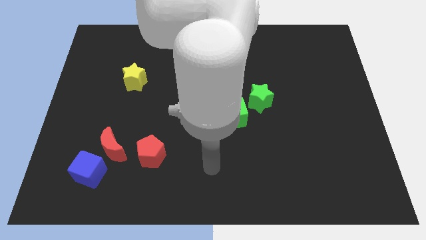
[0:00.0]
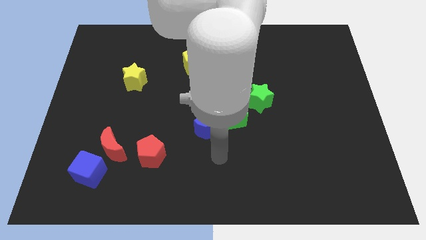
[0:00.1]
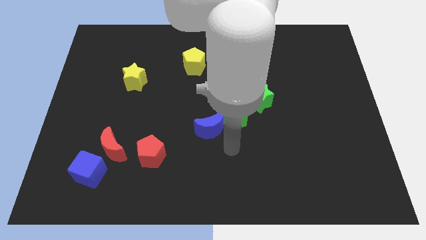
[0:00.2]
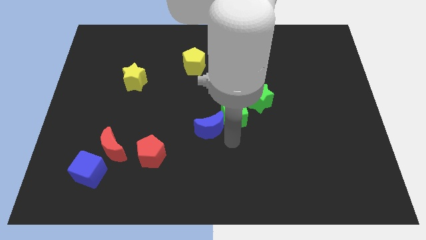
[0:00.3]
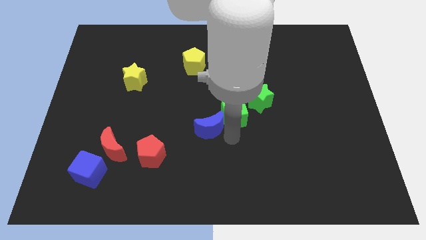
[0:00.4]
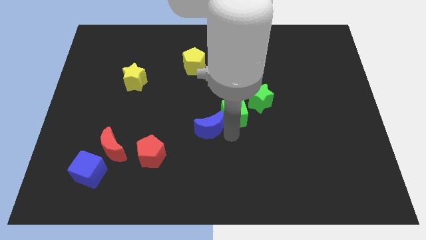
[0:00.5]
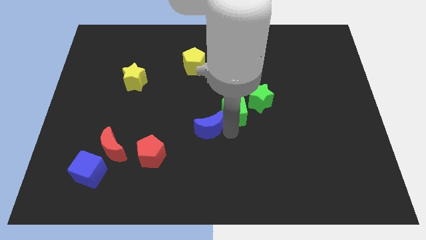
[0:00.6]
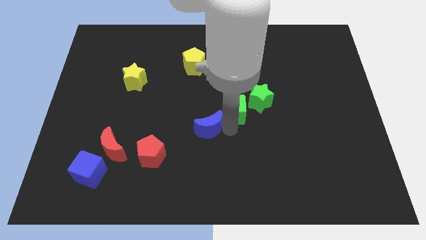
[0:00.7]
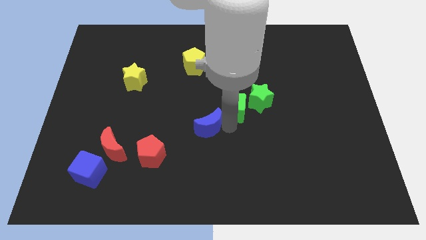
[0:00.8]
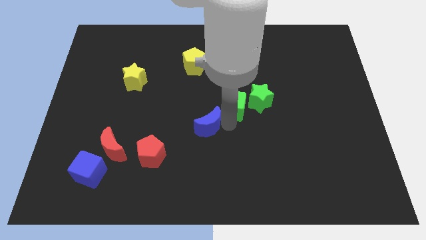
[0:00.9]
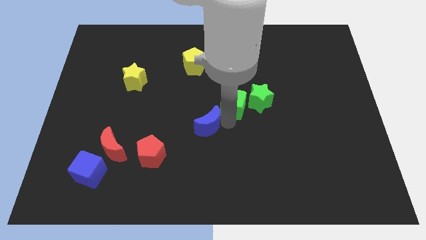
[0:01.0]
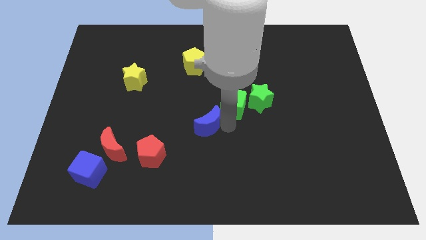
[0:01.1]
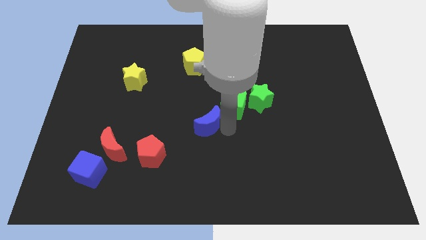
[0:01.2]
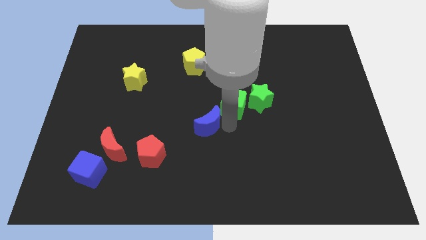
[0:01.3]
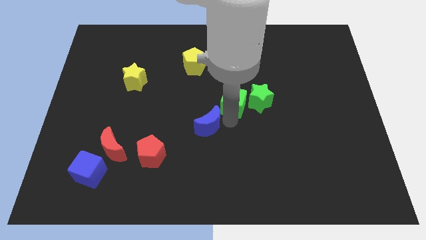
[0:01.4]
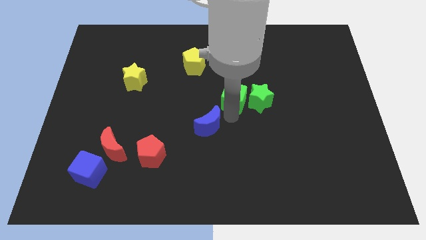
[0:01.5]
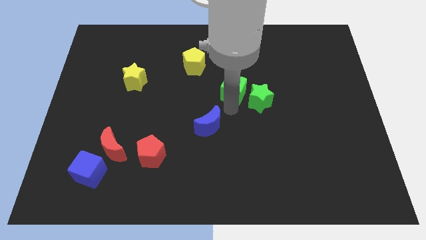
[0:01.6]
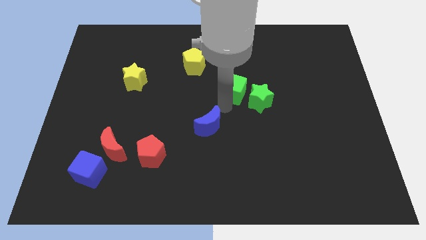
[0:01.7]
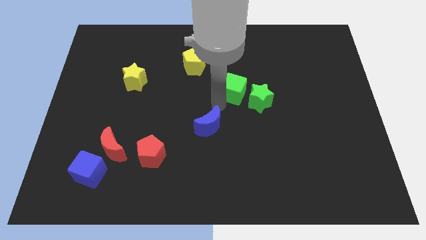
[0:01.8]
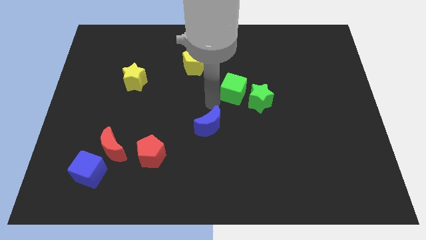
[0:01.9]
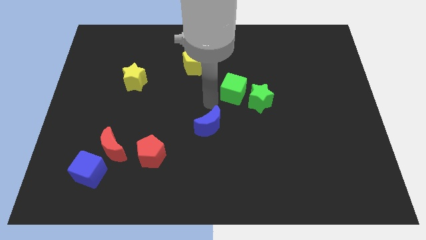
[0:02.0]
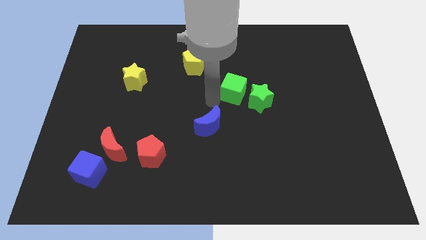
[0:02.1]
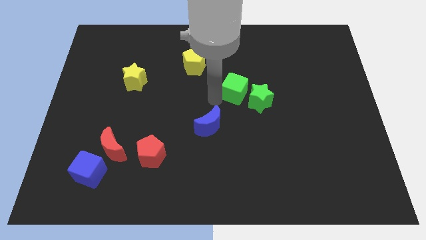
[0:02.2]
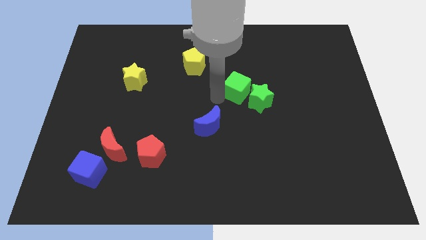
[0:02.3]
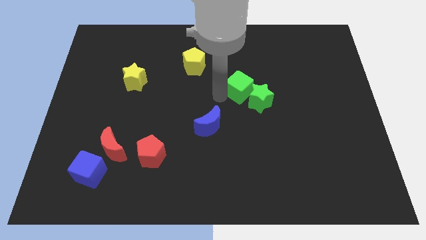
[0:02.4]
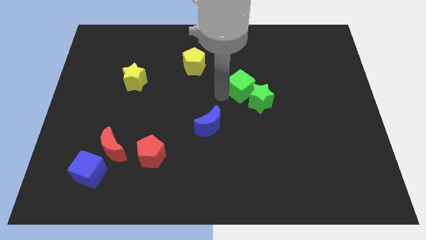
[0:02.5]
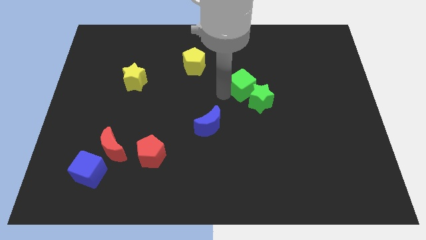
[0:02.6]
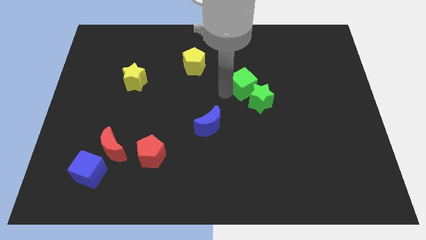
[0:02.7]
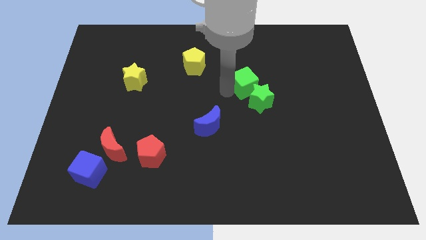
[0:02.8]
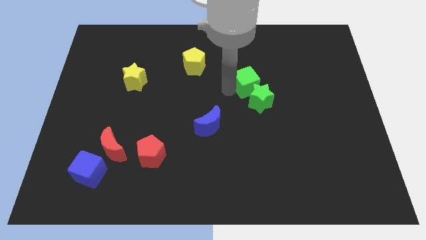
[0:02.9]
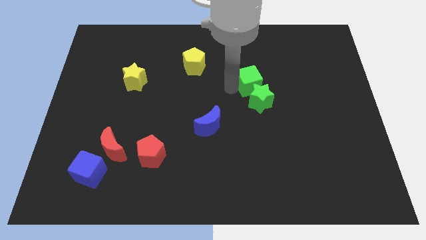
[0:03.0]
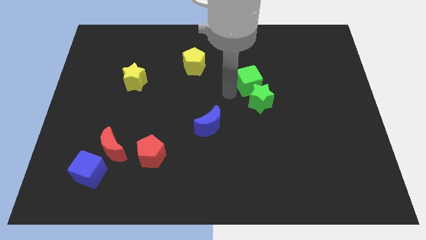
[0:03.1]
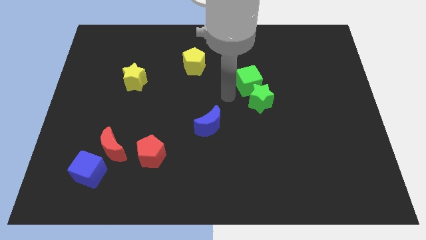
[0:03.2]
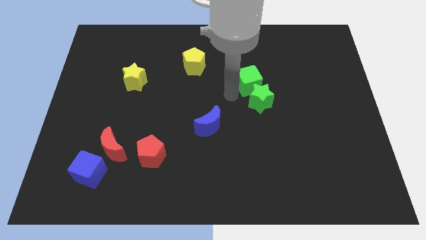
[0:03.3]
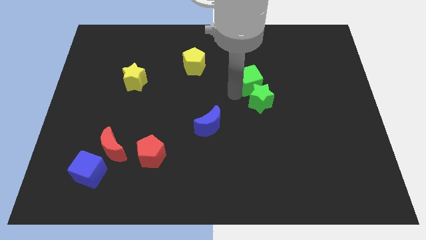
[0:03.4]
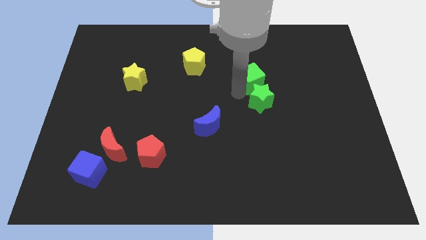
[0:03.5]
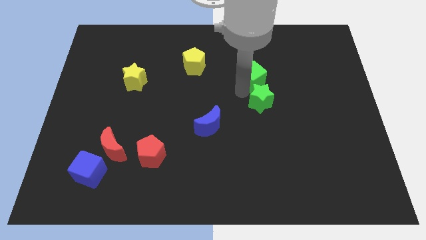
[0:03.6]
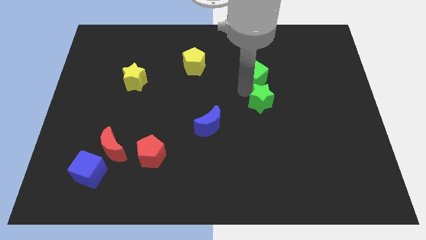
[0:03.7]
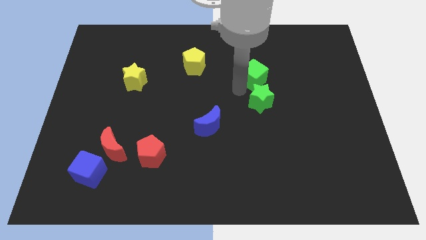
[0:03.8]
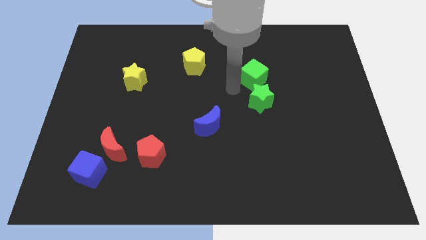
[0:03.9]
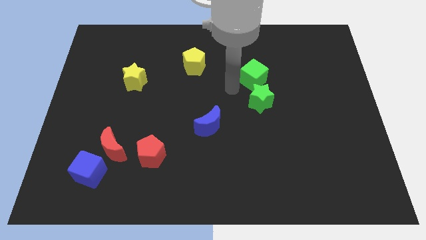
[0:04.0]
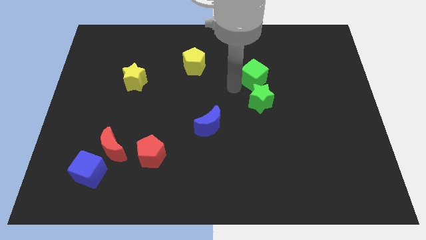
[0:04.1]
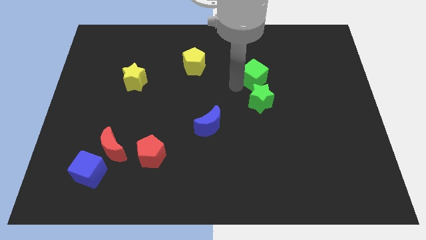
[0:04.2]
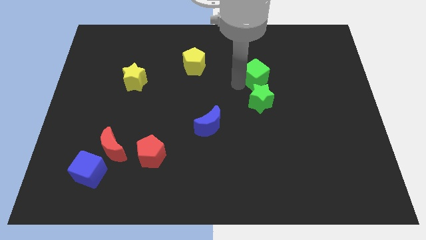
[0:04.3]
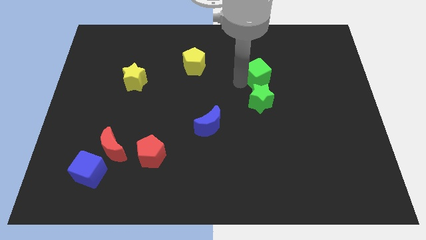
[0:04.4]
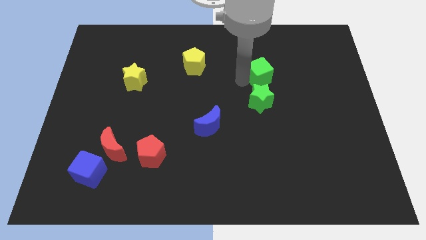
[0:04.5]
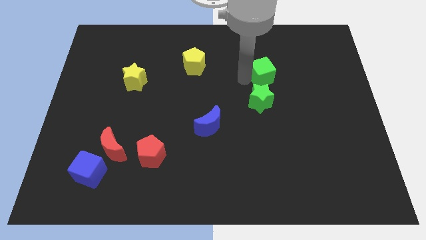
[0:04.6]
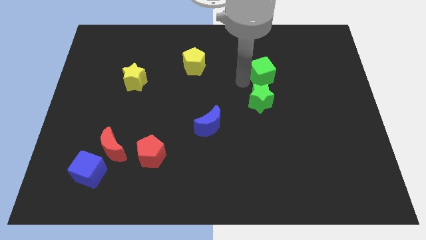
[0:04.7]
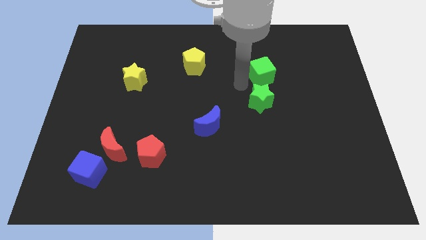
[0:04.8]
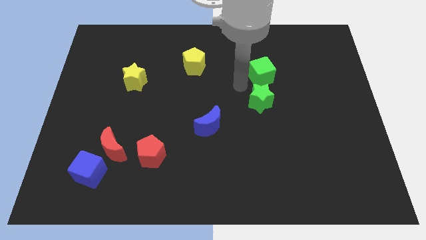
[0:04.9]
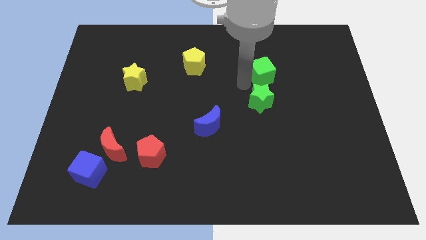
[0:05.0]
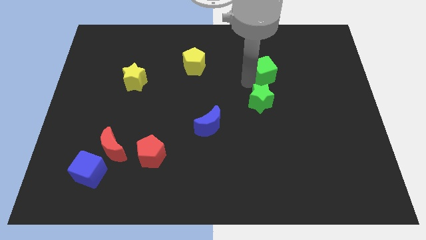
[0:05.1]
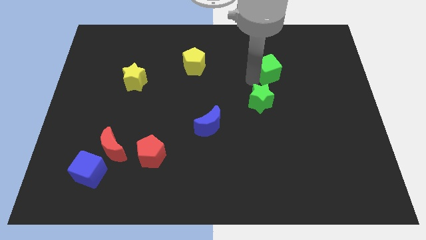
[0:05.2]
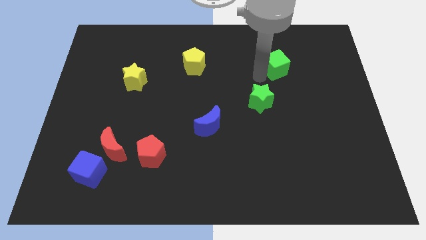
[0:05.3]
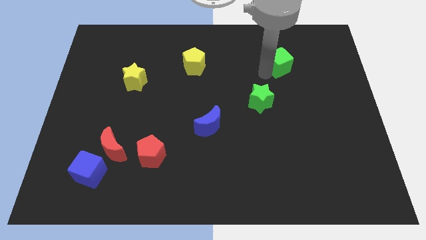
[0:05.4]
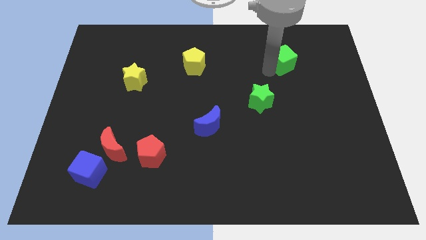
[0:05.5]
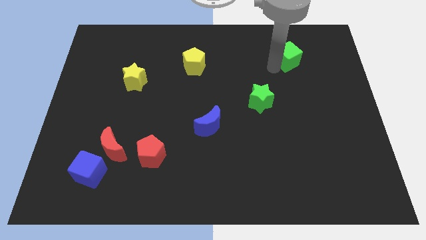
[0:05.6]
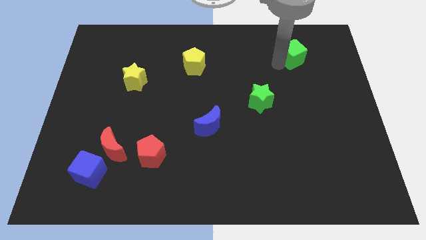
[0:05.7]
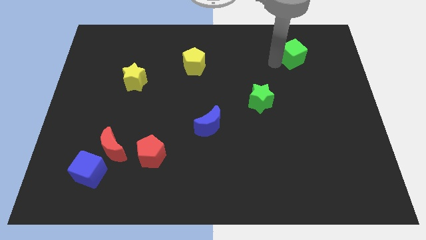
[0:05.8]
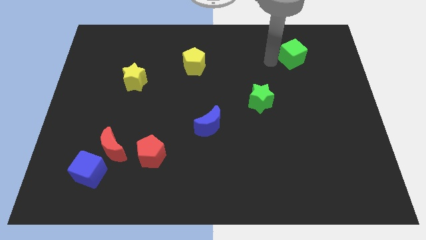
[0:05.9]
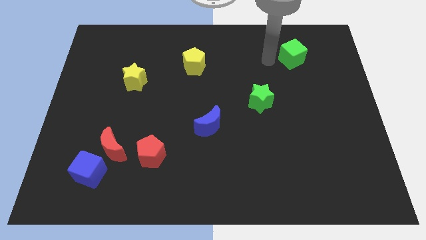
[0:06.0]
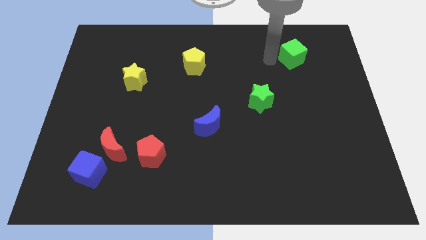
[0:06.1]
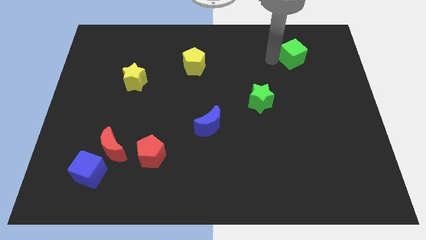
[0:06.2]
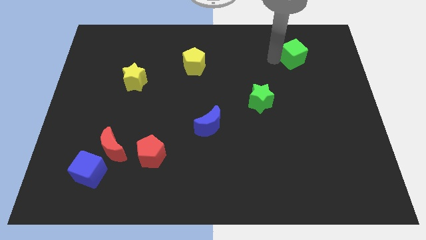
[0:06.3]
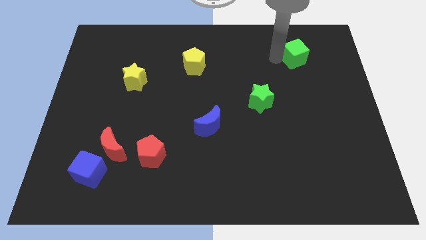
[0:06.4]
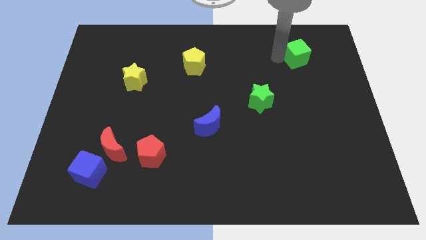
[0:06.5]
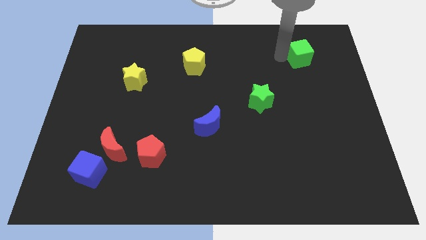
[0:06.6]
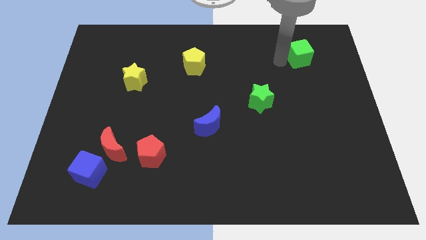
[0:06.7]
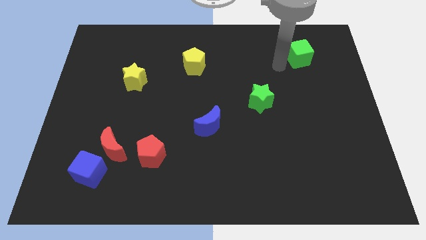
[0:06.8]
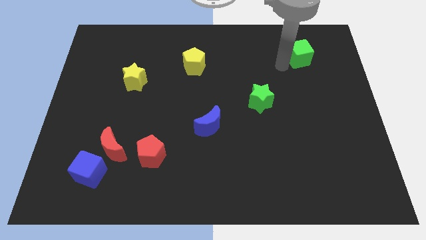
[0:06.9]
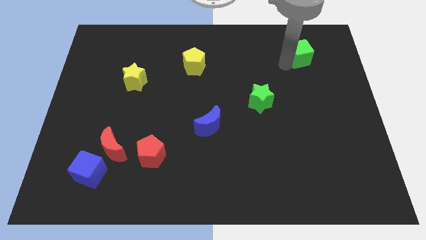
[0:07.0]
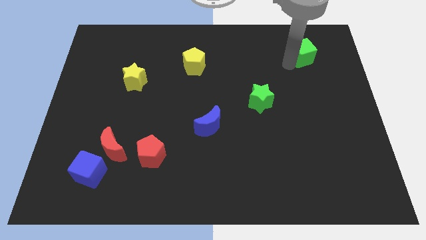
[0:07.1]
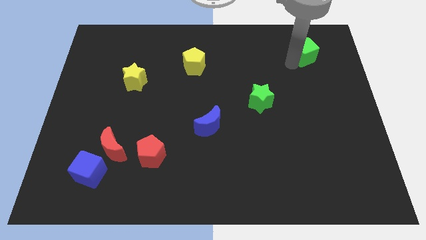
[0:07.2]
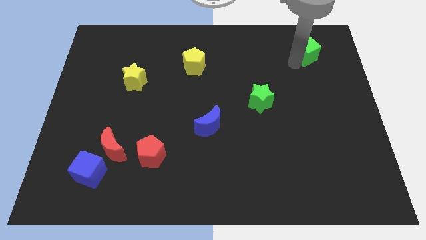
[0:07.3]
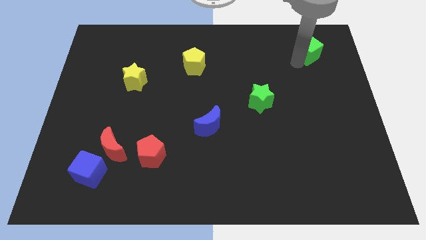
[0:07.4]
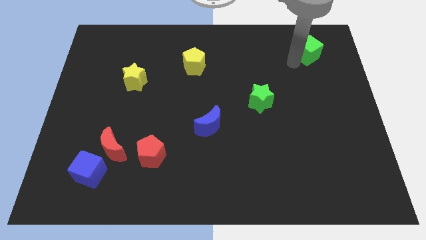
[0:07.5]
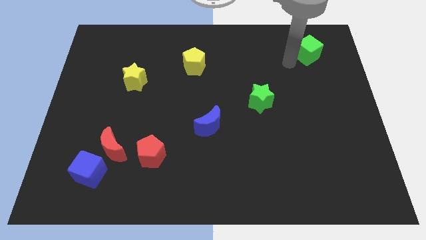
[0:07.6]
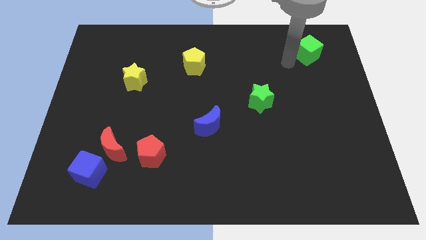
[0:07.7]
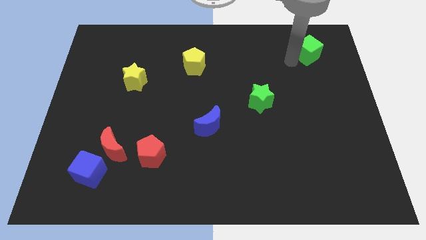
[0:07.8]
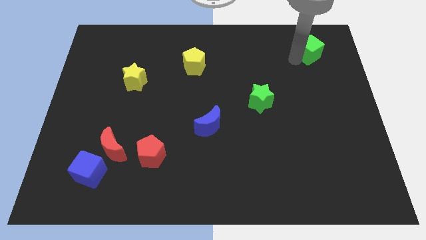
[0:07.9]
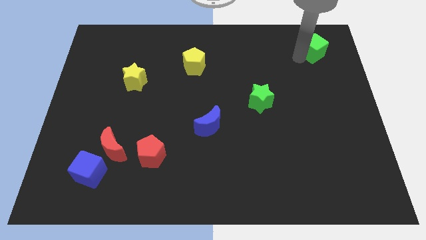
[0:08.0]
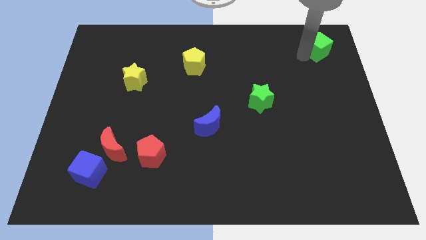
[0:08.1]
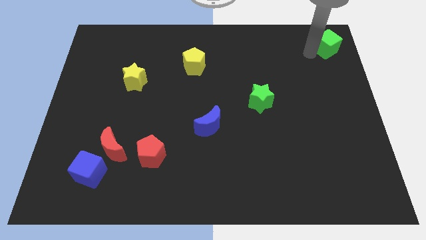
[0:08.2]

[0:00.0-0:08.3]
slide the green cube to the upper right corner
